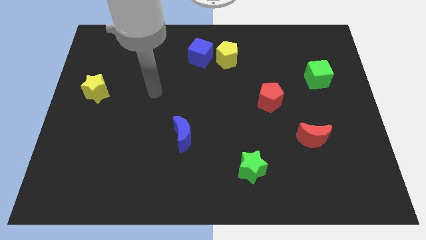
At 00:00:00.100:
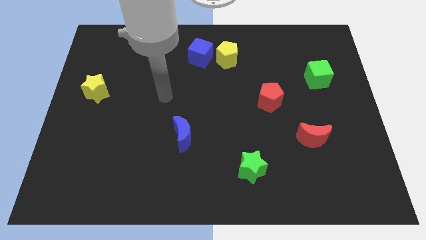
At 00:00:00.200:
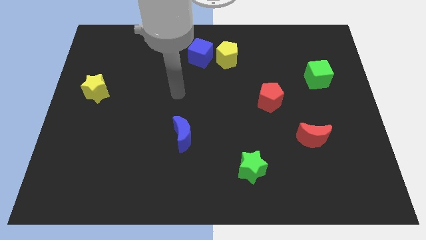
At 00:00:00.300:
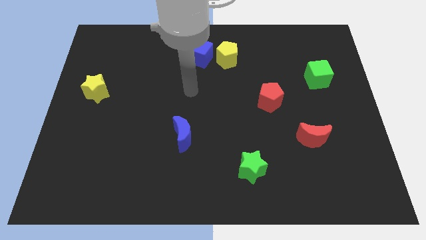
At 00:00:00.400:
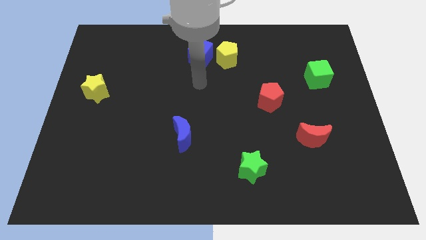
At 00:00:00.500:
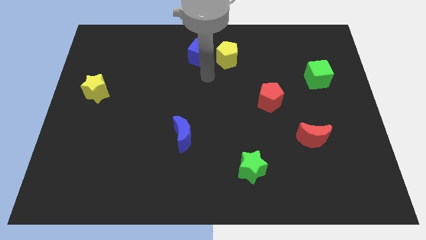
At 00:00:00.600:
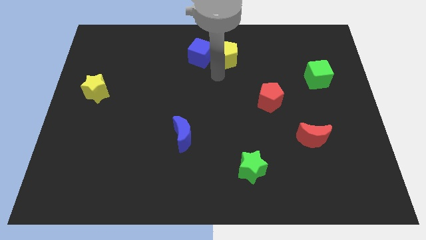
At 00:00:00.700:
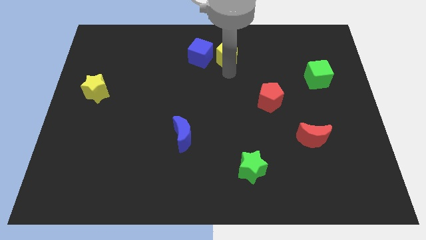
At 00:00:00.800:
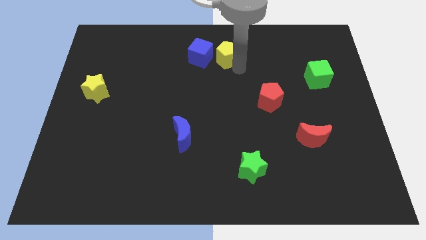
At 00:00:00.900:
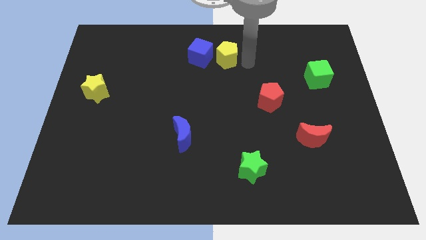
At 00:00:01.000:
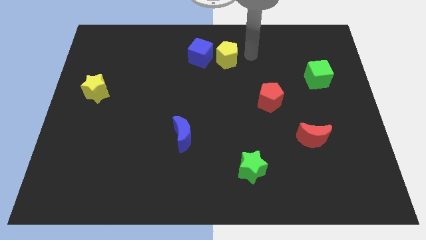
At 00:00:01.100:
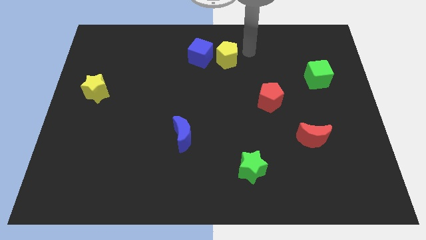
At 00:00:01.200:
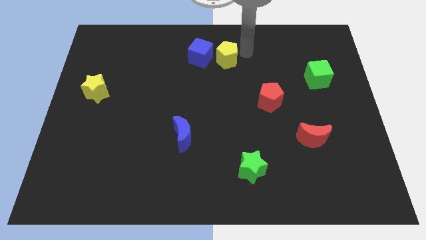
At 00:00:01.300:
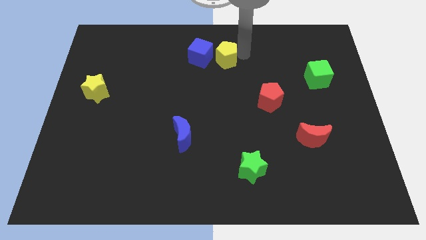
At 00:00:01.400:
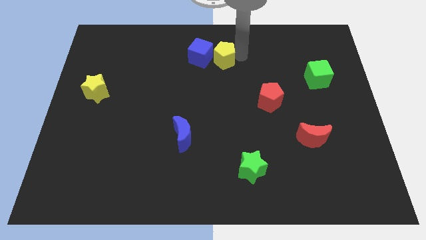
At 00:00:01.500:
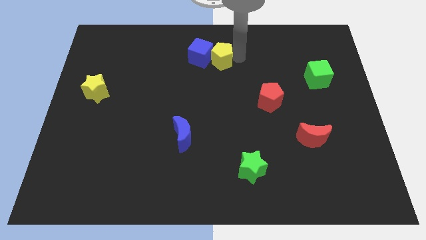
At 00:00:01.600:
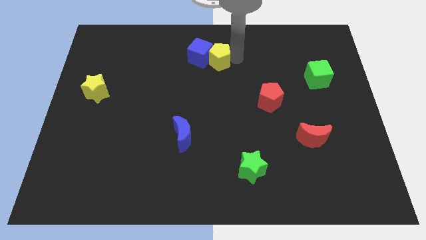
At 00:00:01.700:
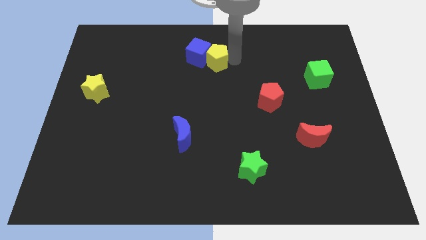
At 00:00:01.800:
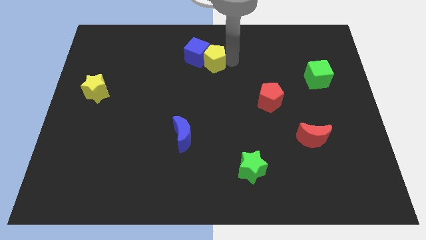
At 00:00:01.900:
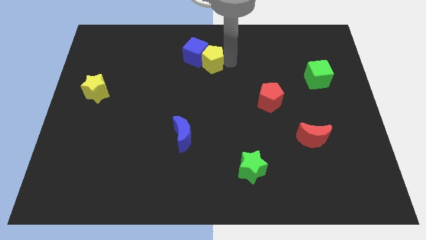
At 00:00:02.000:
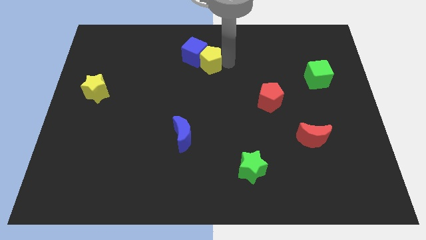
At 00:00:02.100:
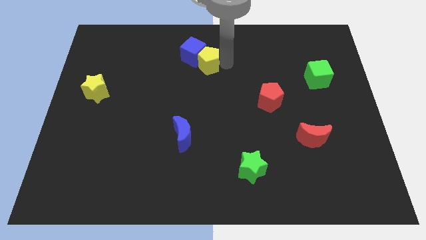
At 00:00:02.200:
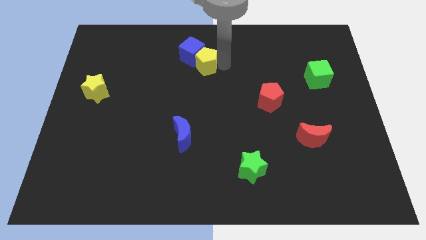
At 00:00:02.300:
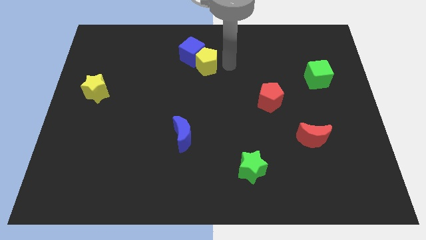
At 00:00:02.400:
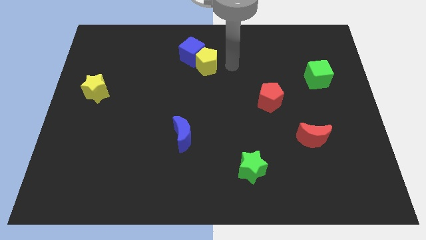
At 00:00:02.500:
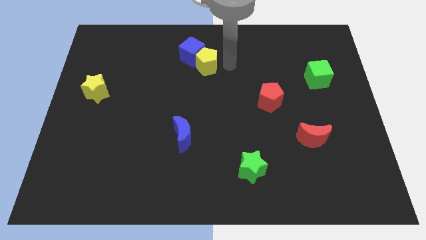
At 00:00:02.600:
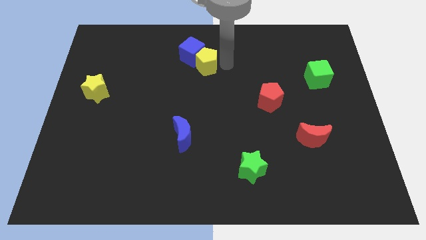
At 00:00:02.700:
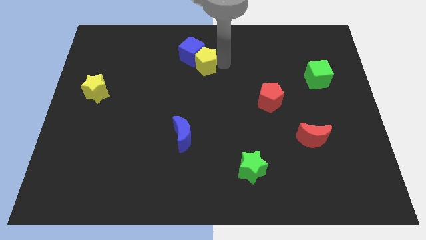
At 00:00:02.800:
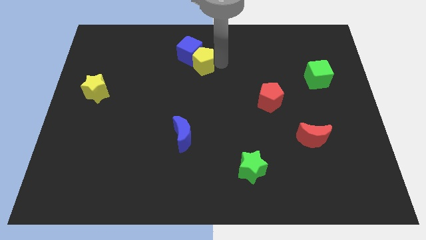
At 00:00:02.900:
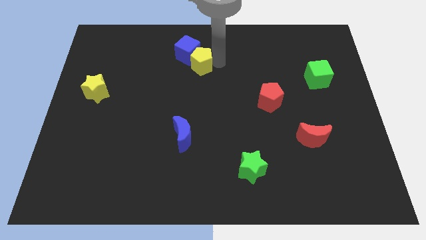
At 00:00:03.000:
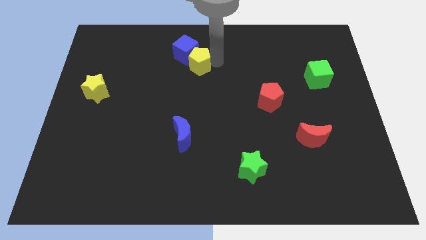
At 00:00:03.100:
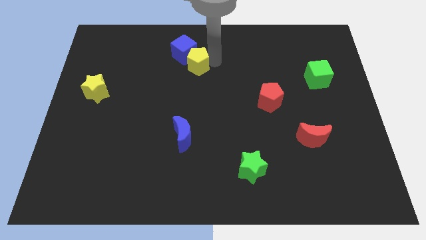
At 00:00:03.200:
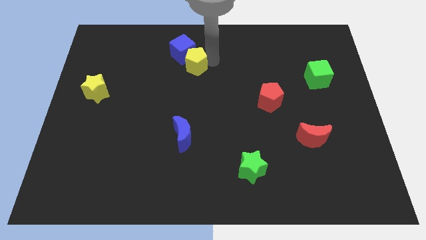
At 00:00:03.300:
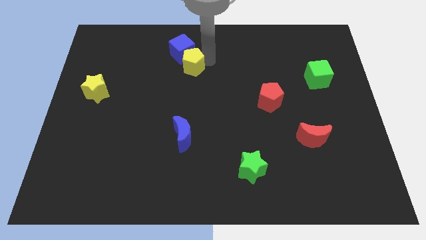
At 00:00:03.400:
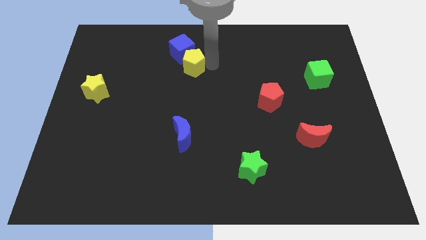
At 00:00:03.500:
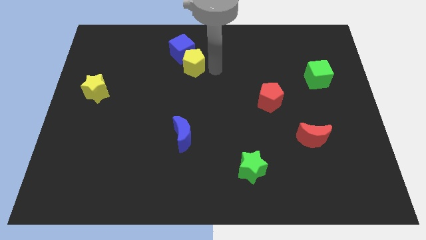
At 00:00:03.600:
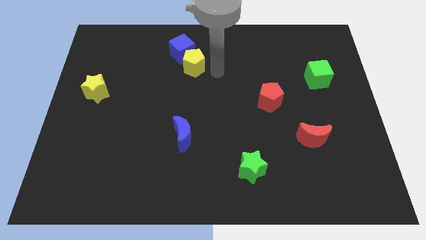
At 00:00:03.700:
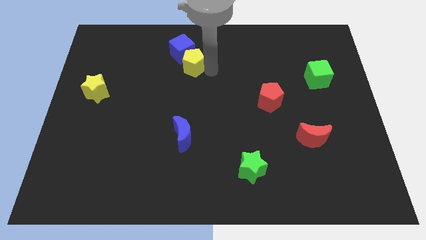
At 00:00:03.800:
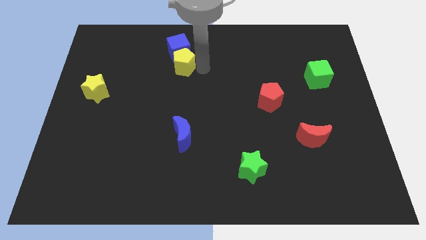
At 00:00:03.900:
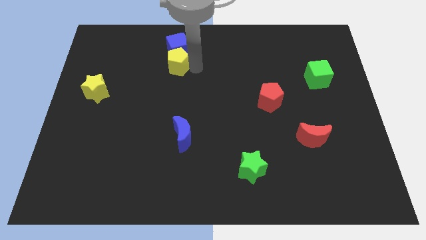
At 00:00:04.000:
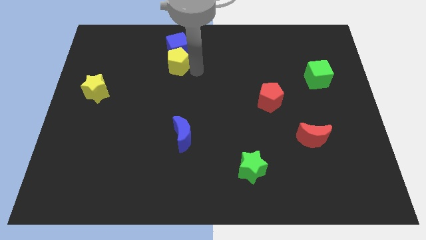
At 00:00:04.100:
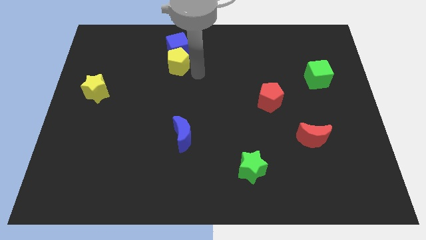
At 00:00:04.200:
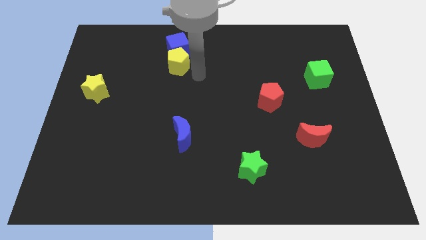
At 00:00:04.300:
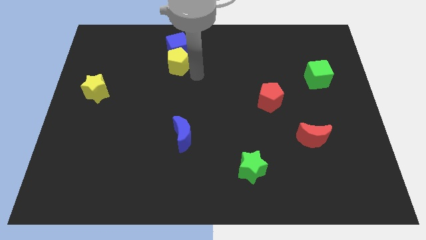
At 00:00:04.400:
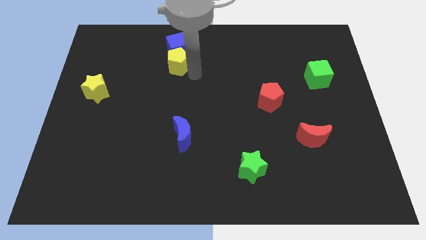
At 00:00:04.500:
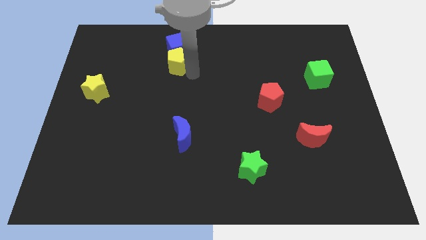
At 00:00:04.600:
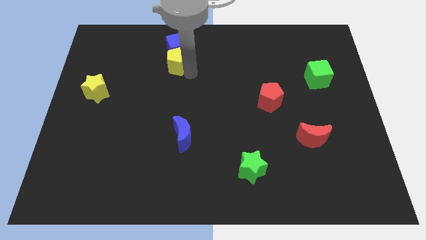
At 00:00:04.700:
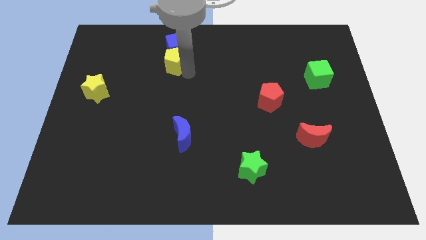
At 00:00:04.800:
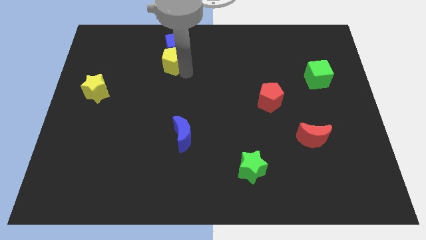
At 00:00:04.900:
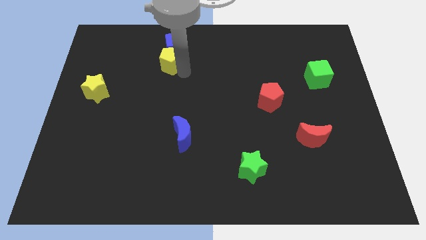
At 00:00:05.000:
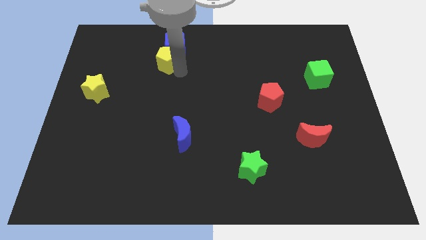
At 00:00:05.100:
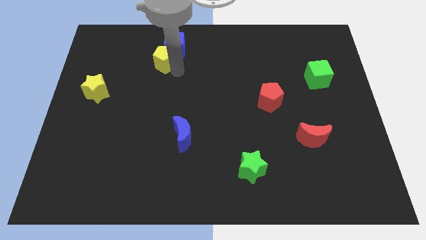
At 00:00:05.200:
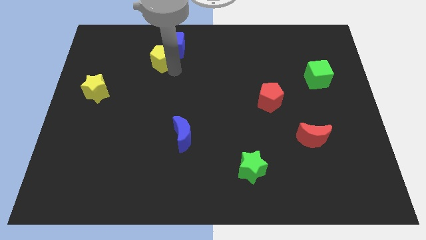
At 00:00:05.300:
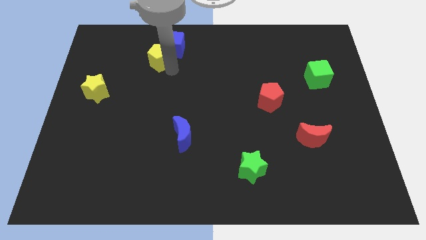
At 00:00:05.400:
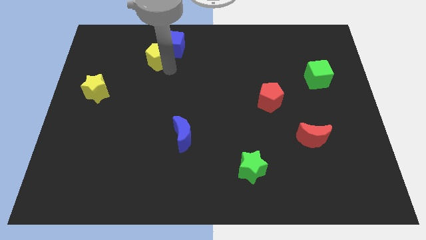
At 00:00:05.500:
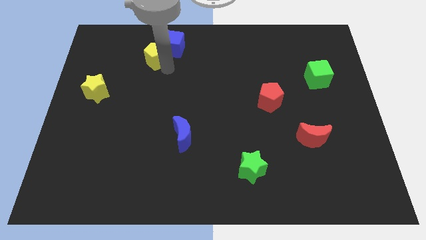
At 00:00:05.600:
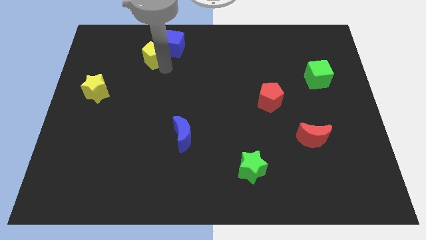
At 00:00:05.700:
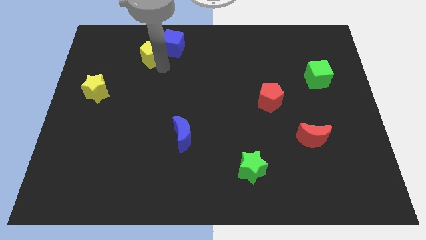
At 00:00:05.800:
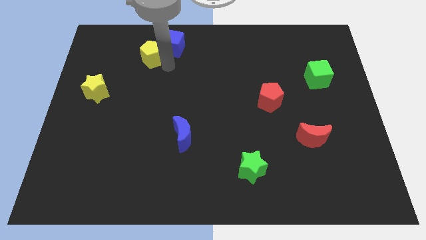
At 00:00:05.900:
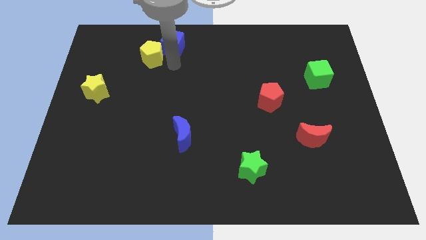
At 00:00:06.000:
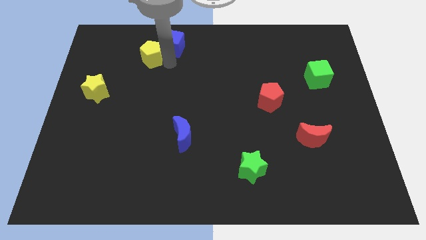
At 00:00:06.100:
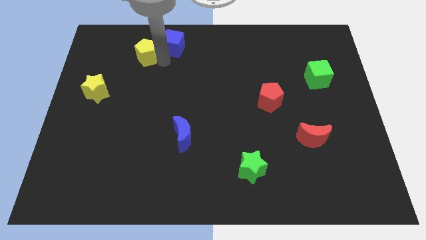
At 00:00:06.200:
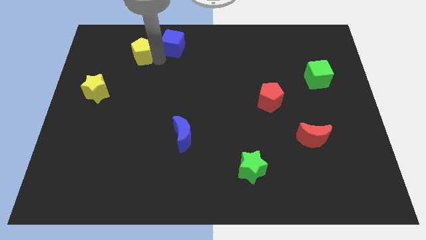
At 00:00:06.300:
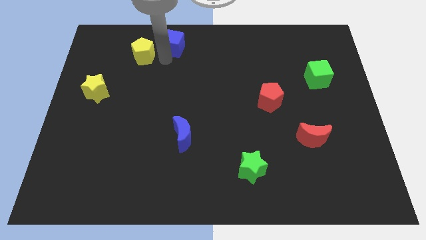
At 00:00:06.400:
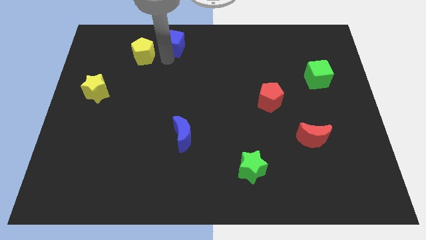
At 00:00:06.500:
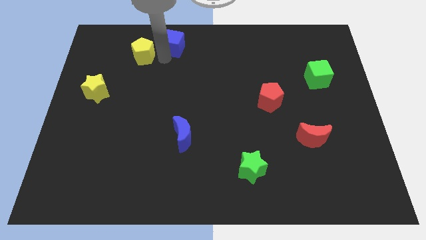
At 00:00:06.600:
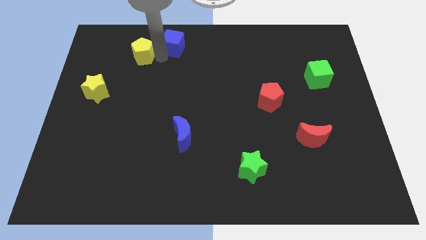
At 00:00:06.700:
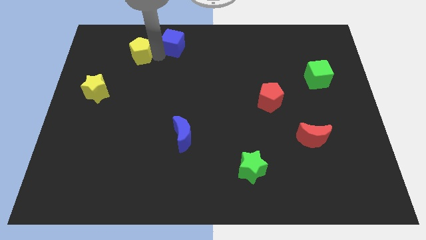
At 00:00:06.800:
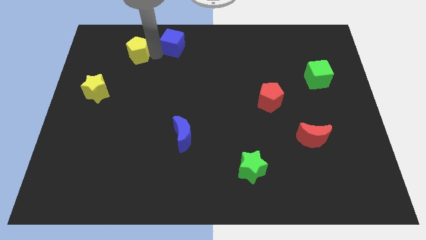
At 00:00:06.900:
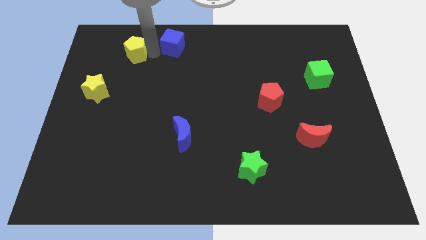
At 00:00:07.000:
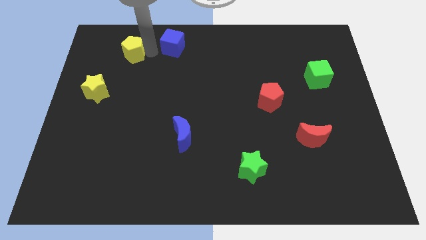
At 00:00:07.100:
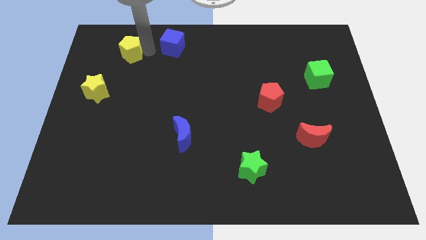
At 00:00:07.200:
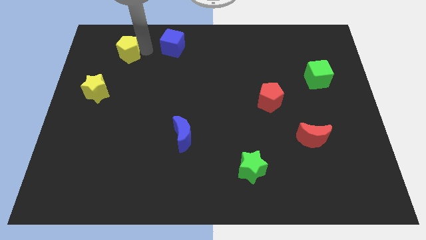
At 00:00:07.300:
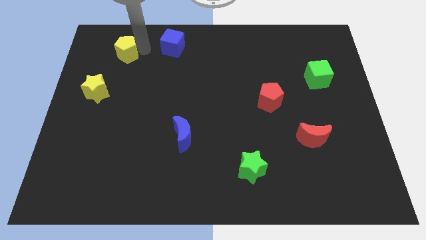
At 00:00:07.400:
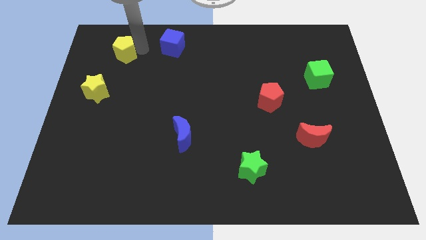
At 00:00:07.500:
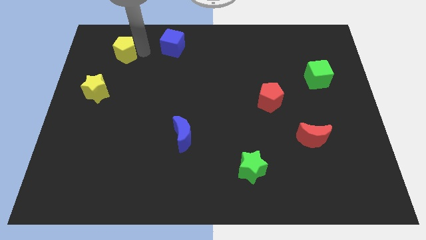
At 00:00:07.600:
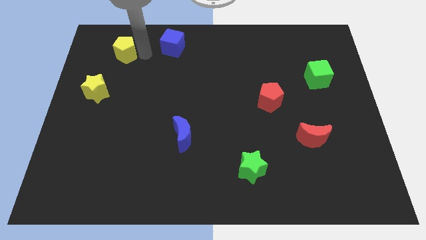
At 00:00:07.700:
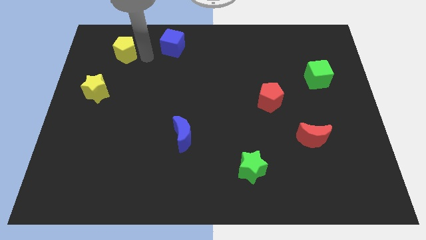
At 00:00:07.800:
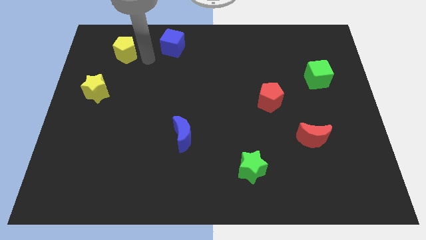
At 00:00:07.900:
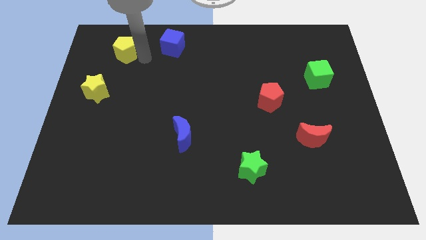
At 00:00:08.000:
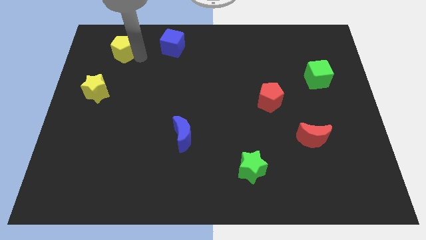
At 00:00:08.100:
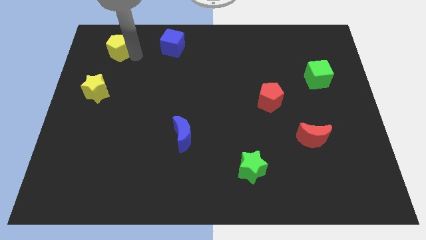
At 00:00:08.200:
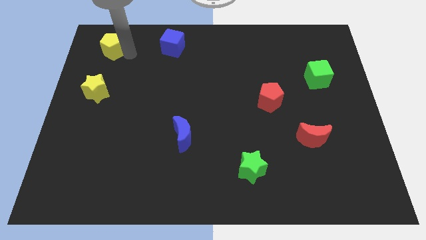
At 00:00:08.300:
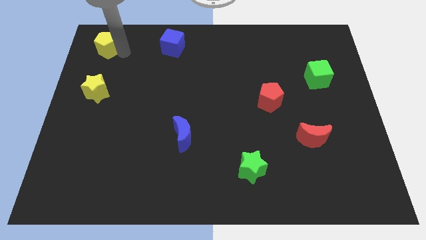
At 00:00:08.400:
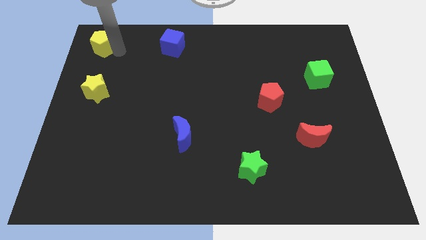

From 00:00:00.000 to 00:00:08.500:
move the yellow pentagon to the top left corner
